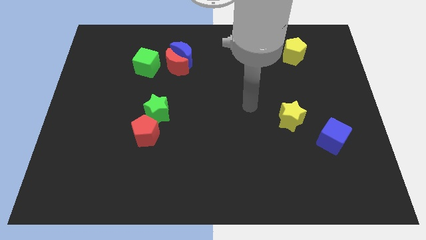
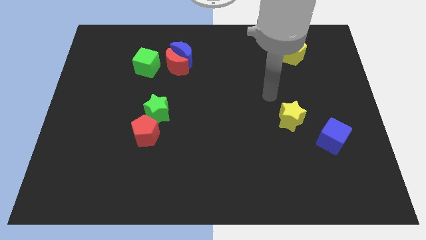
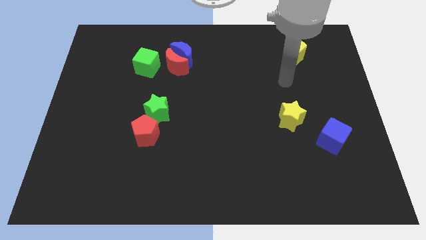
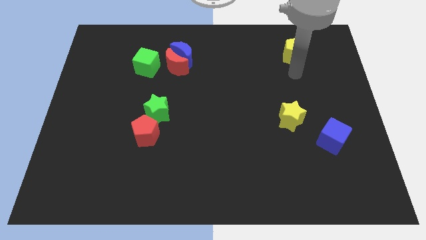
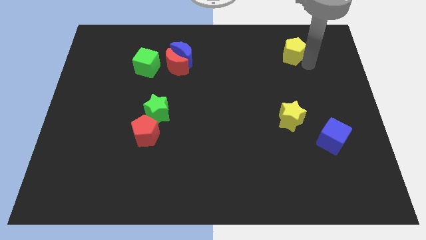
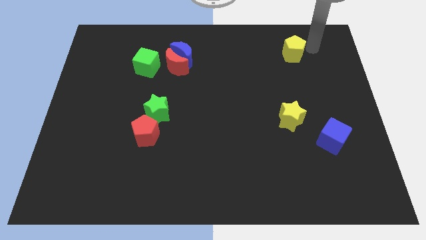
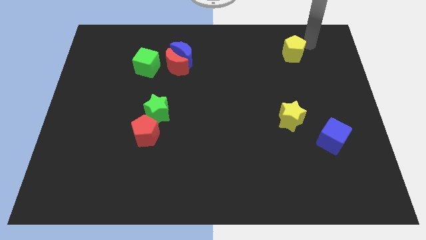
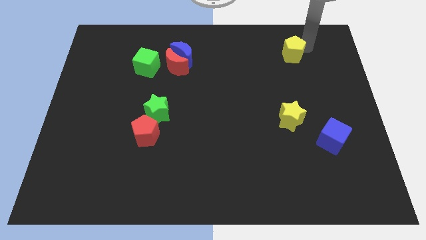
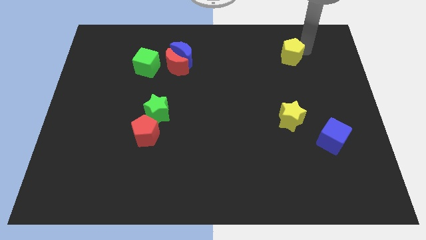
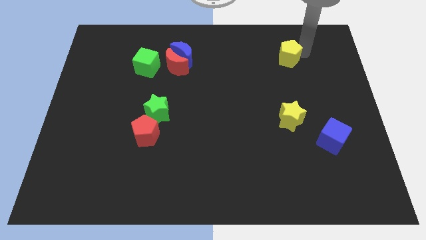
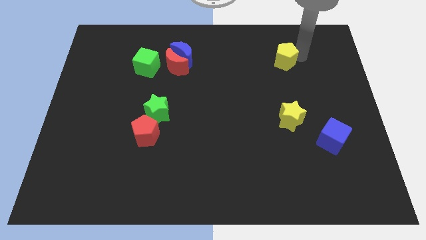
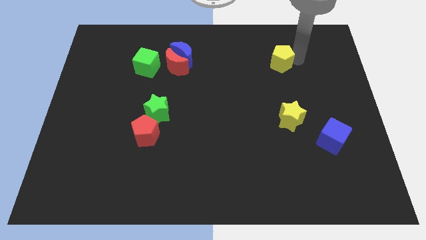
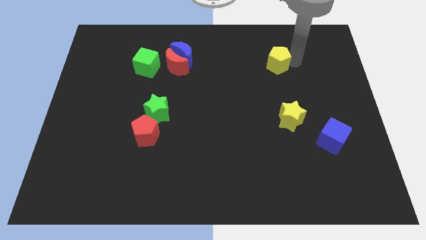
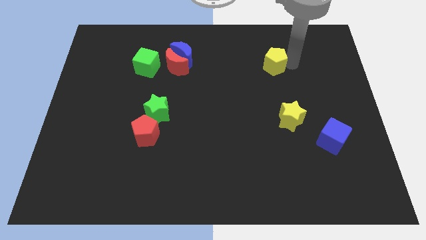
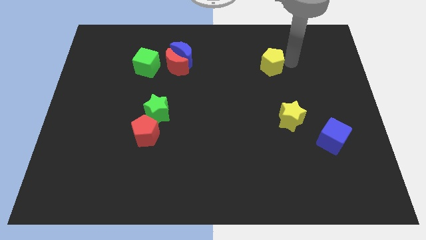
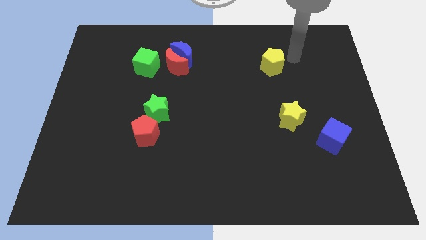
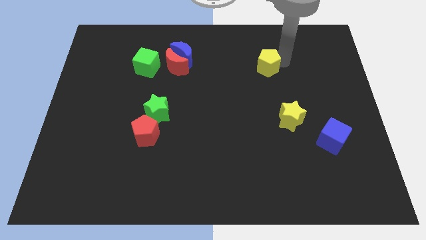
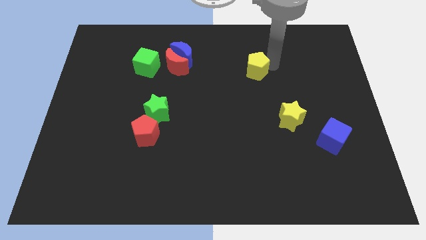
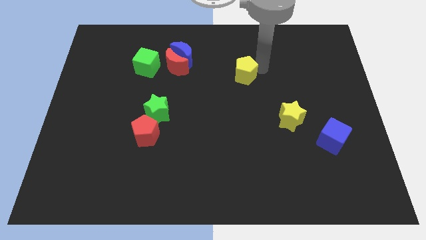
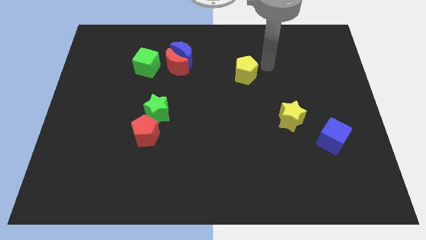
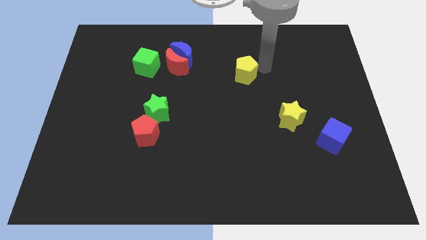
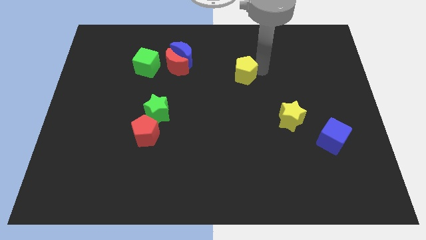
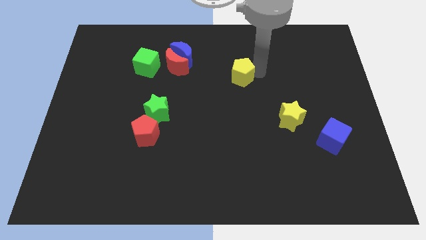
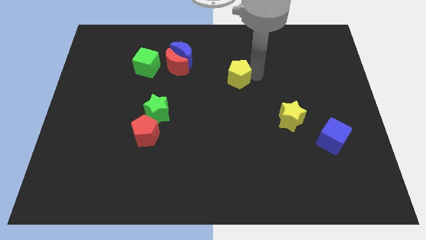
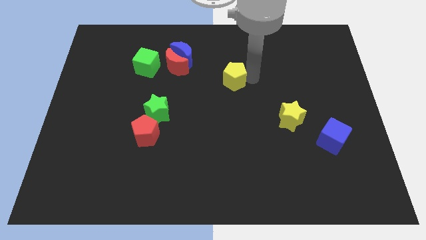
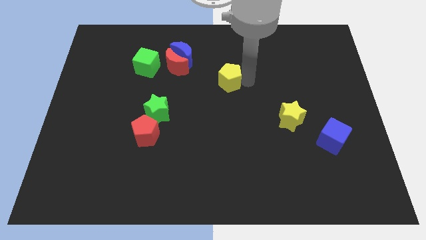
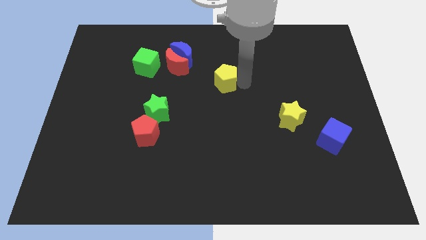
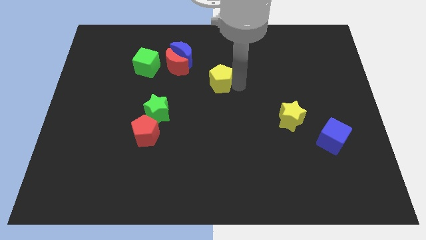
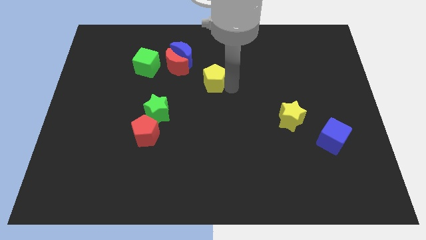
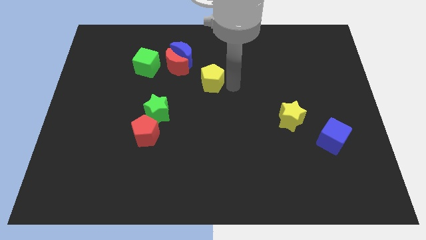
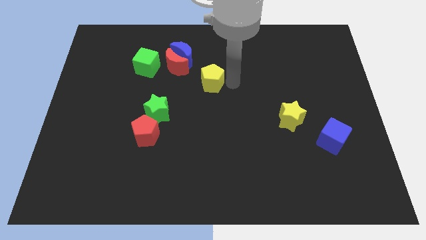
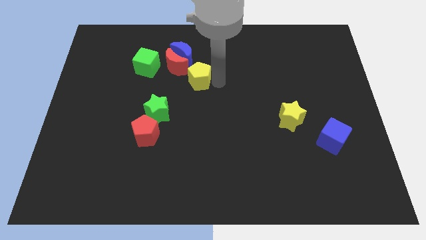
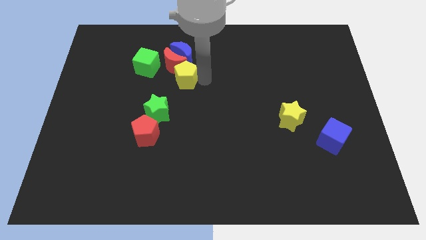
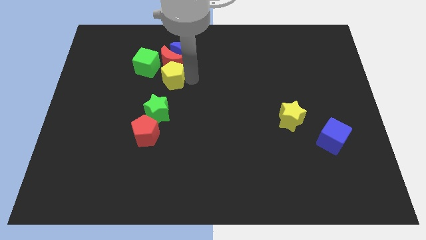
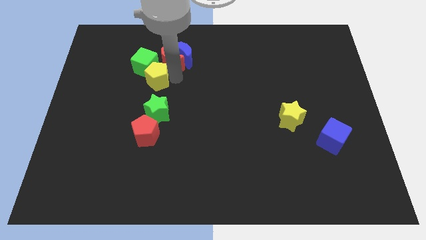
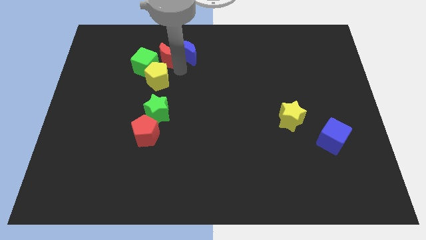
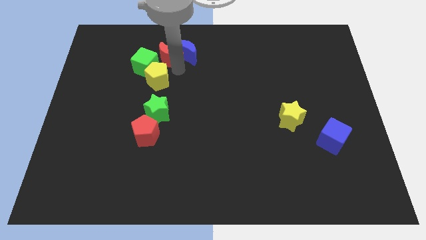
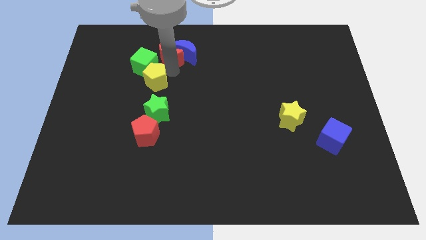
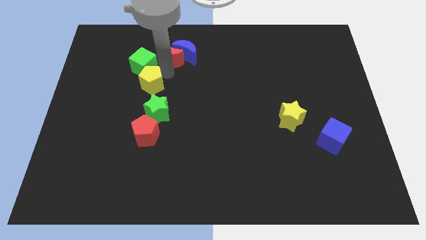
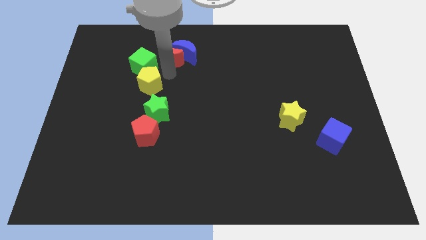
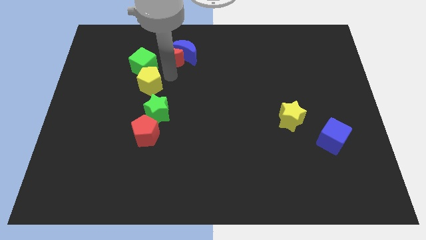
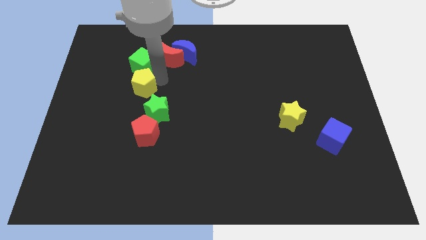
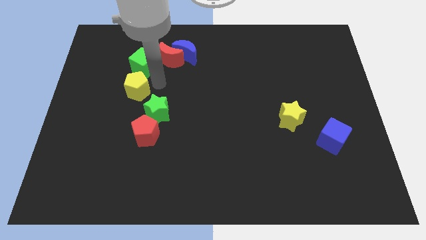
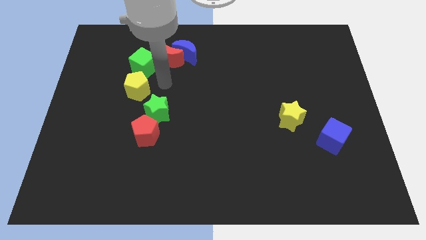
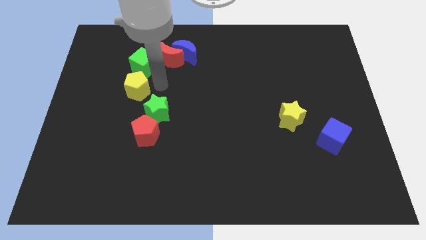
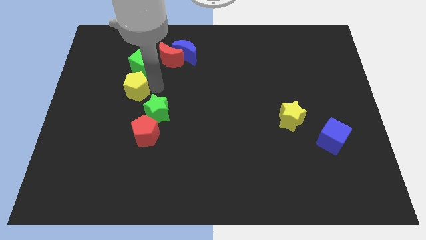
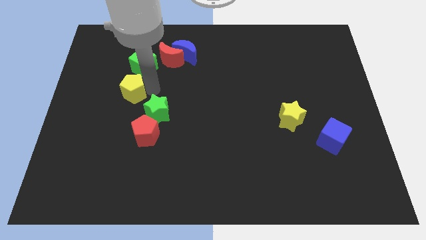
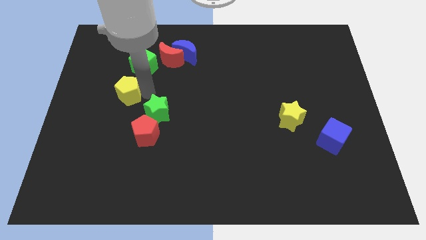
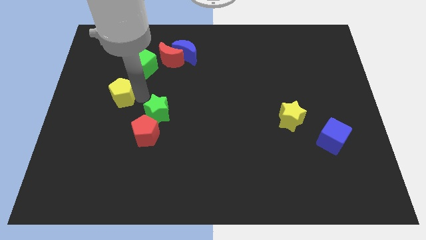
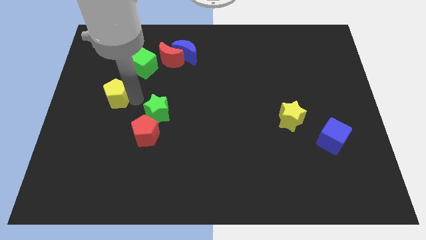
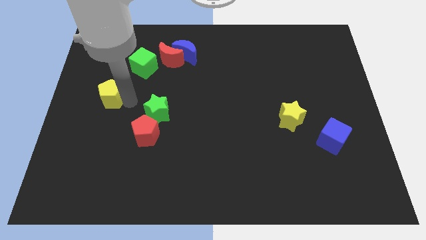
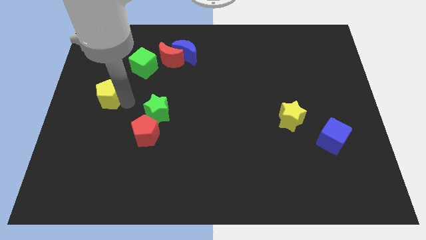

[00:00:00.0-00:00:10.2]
move the yellow pentagon to the center left

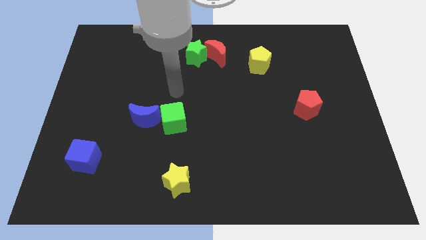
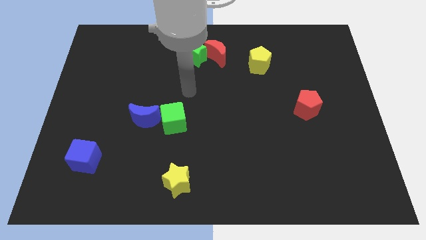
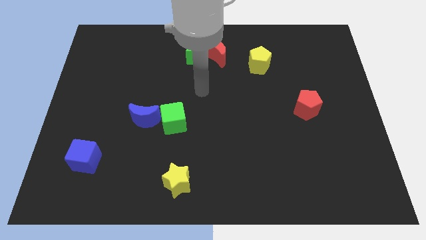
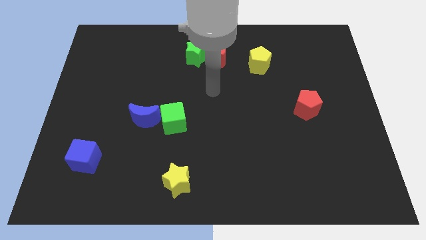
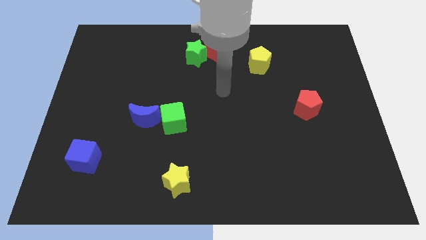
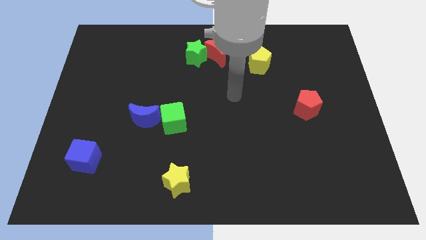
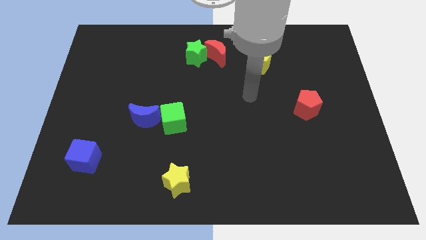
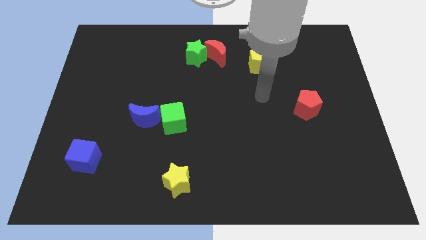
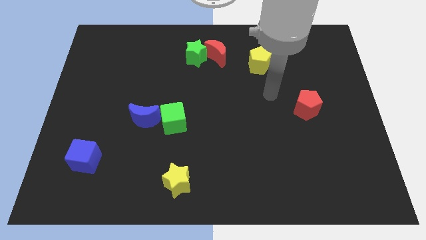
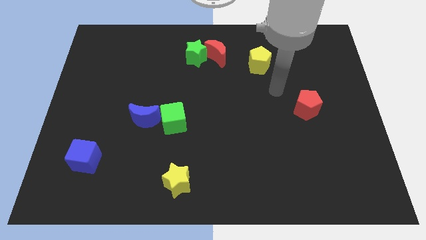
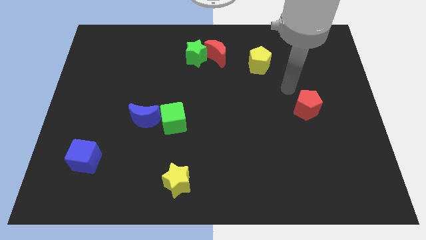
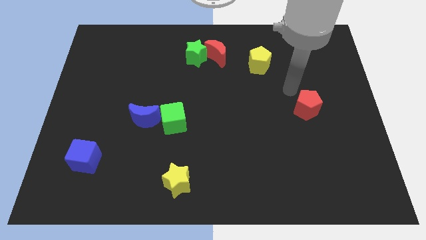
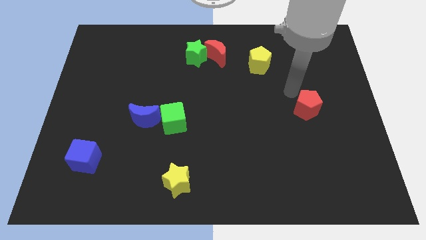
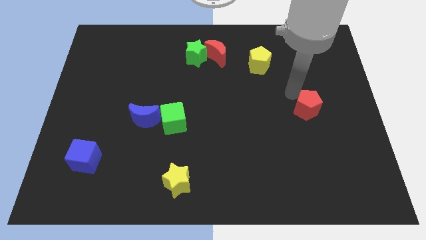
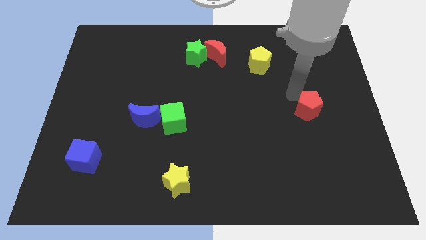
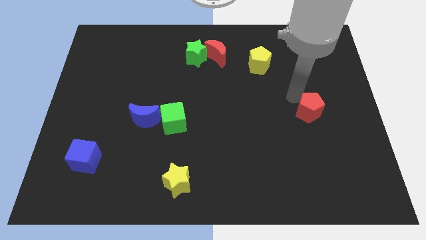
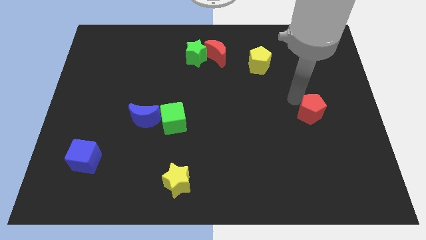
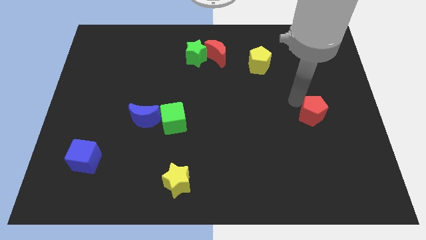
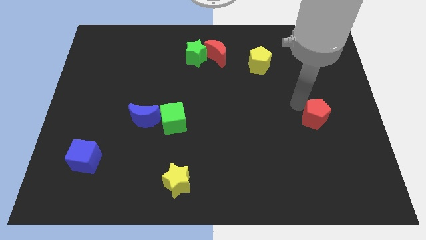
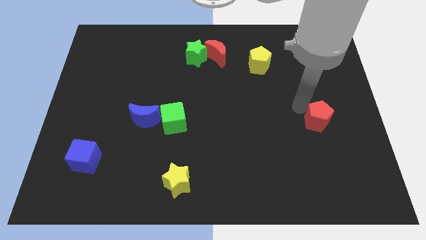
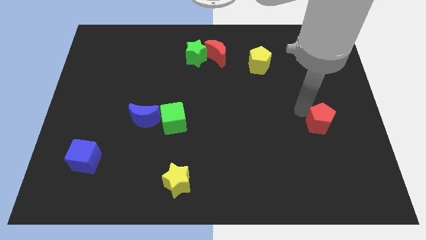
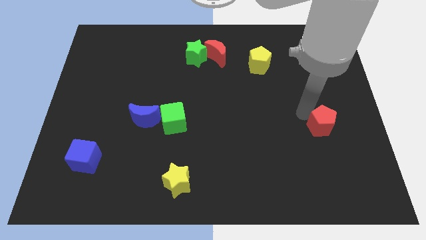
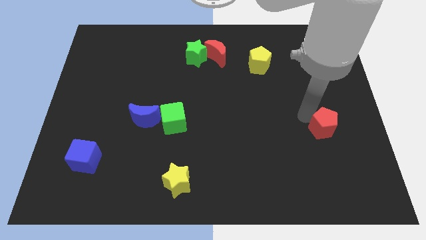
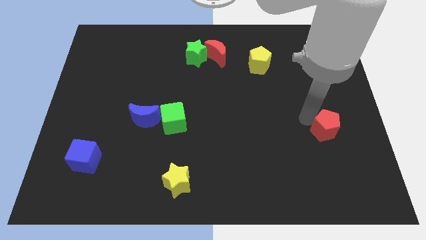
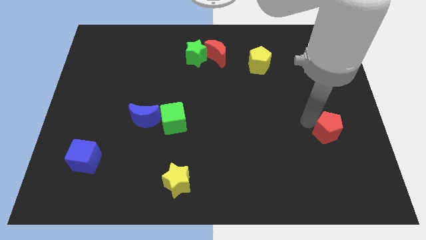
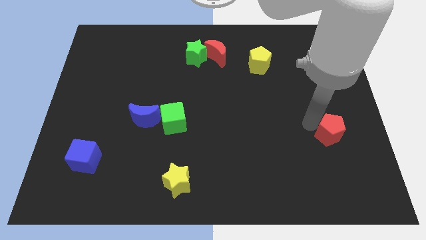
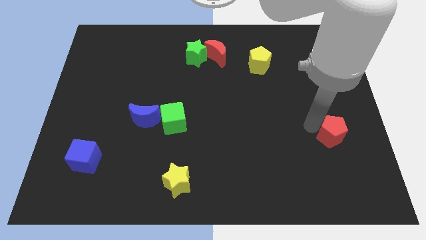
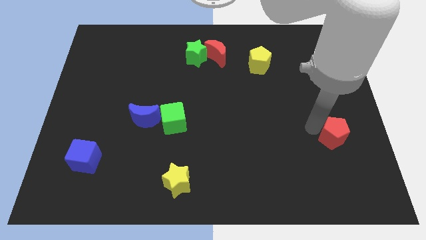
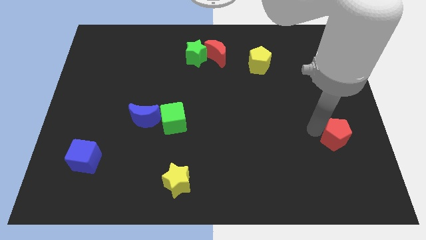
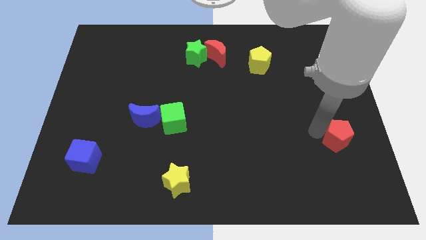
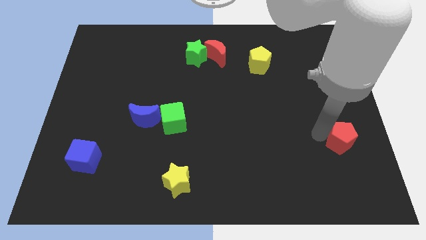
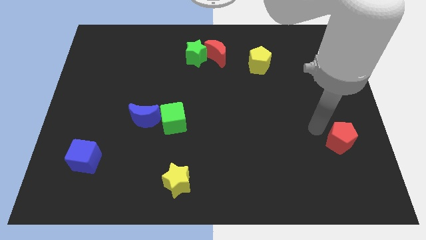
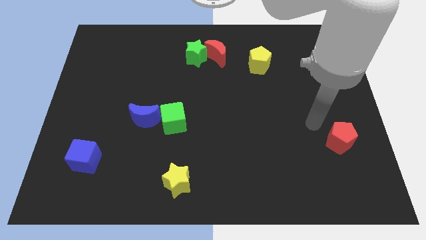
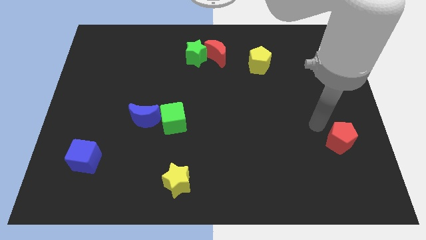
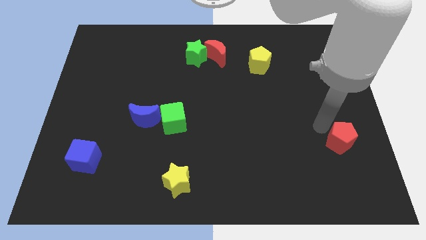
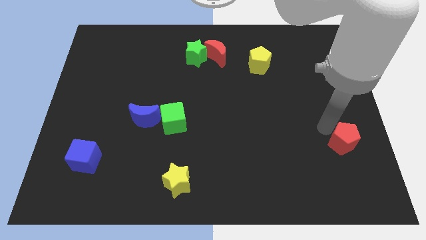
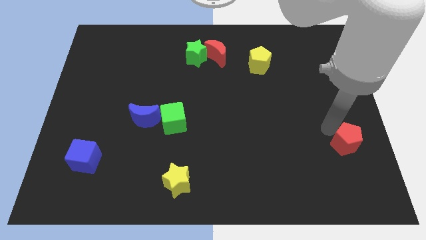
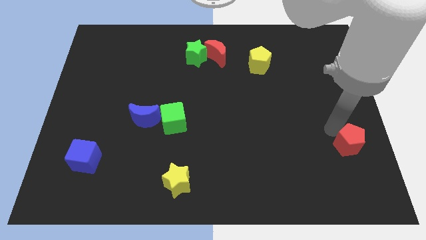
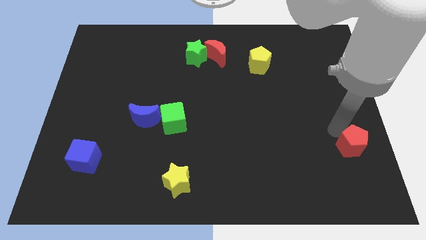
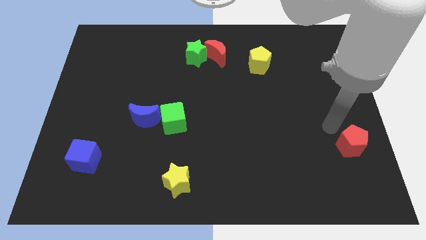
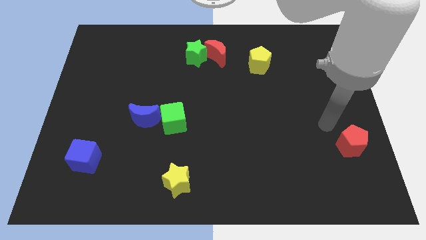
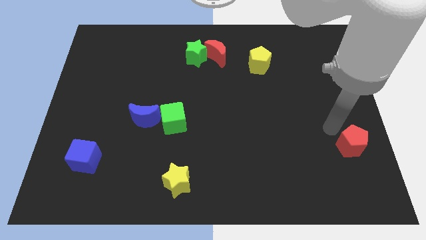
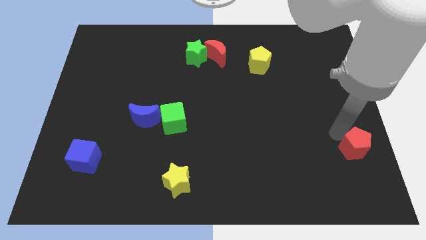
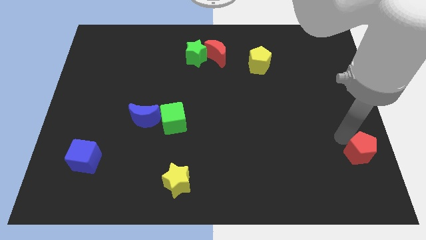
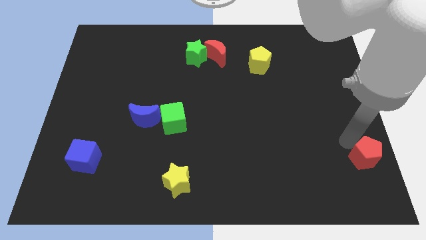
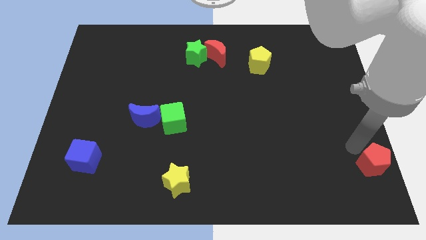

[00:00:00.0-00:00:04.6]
put the red pentagon to the lower right corner
